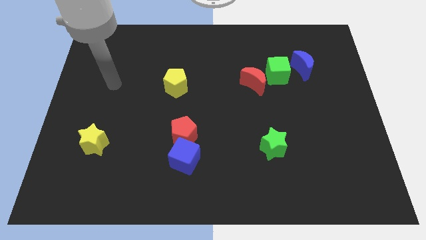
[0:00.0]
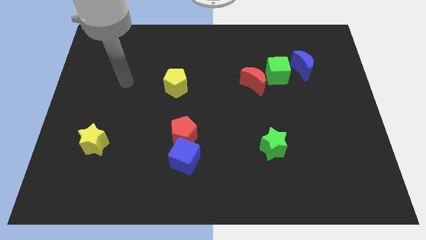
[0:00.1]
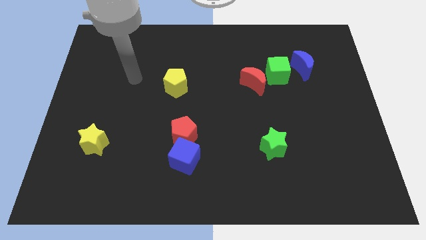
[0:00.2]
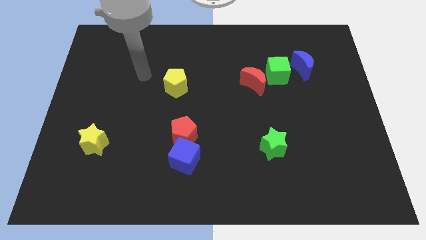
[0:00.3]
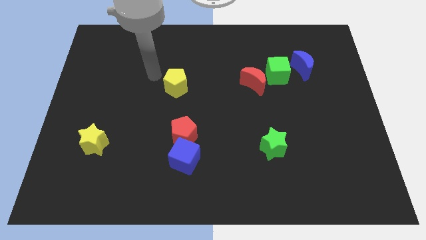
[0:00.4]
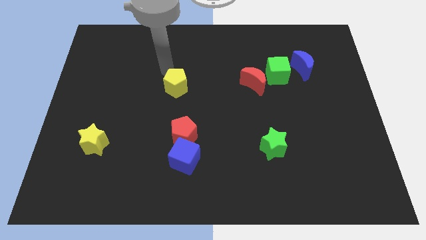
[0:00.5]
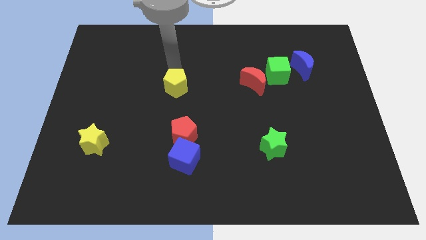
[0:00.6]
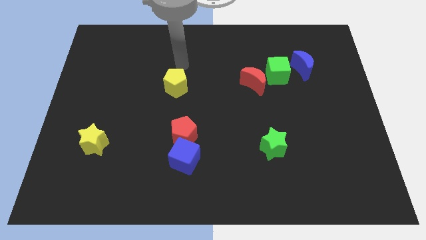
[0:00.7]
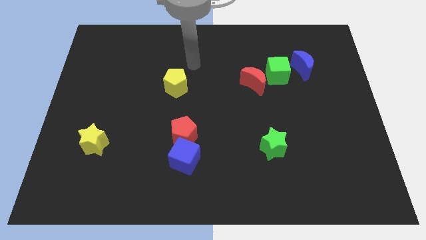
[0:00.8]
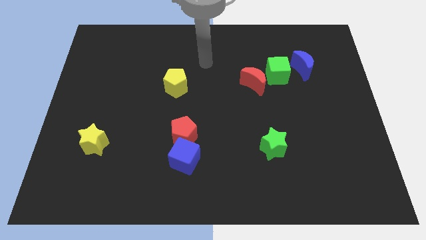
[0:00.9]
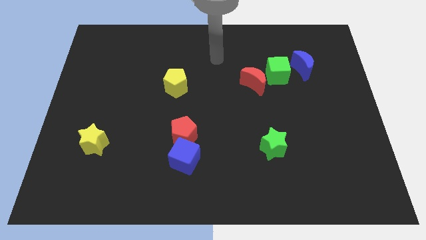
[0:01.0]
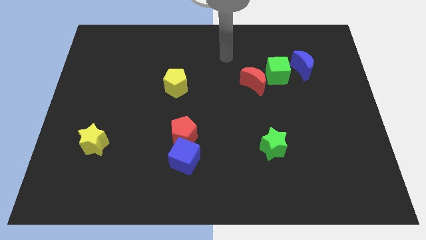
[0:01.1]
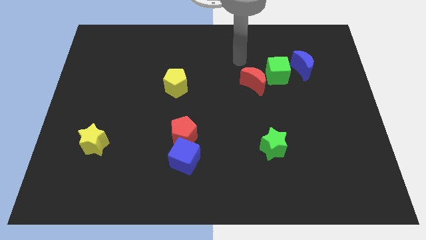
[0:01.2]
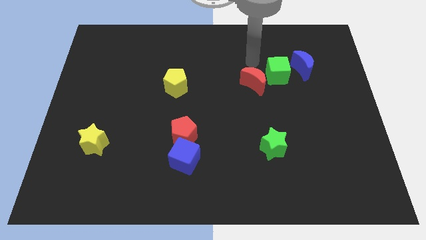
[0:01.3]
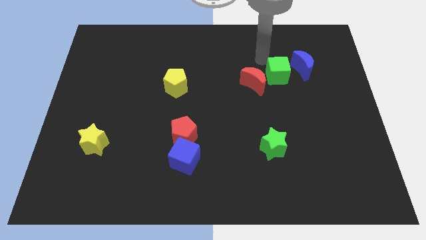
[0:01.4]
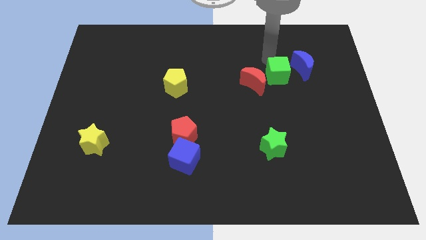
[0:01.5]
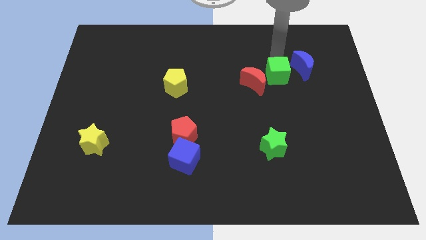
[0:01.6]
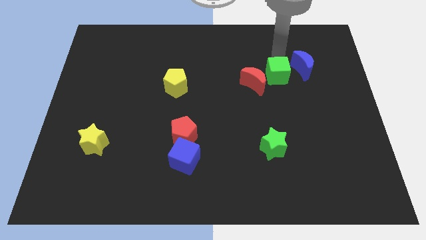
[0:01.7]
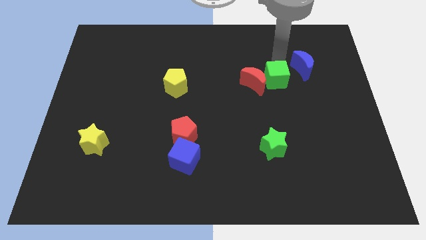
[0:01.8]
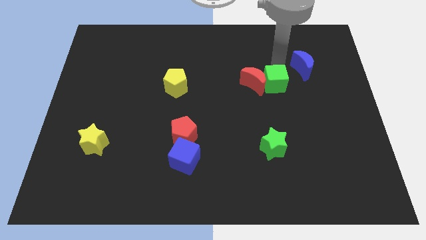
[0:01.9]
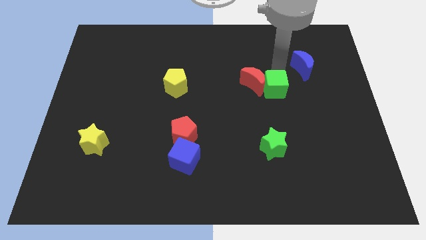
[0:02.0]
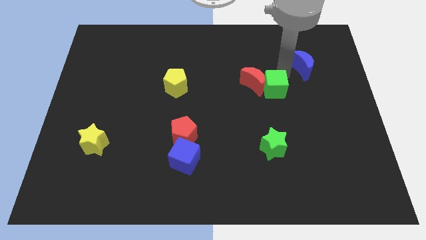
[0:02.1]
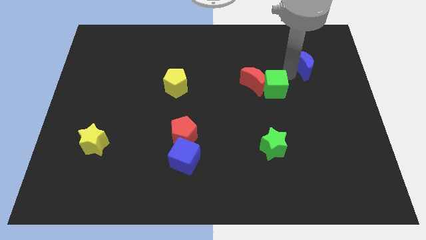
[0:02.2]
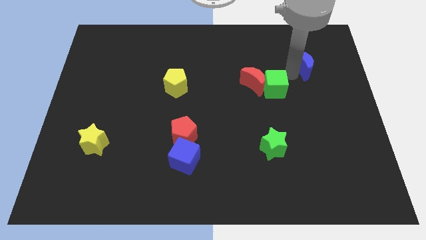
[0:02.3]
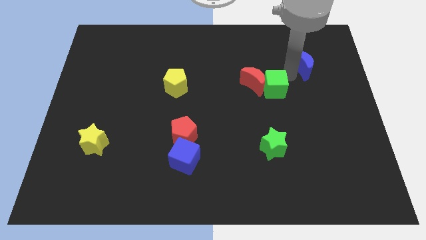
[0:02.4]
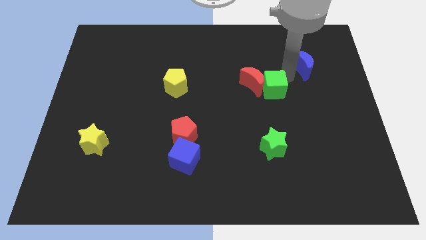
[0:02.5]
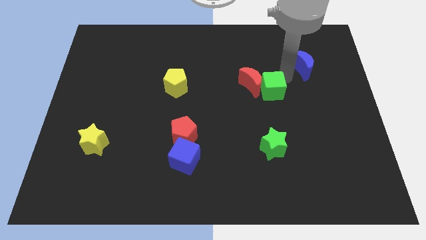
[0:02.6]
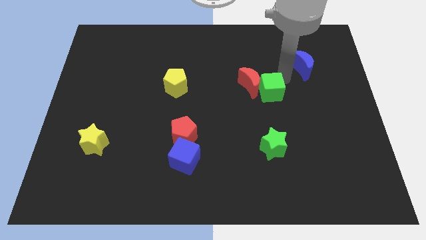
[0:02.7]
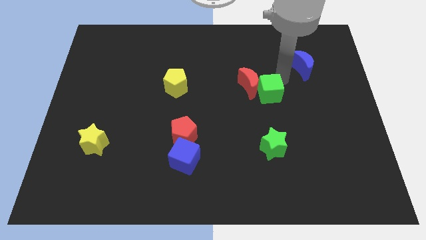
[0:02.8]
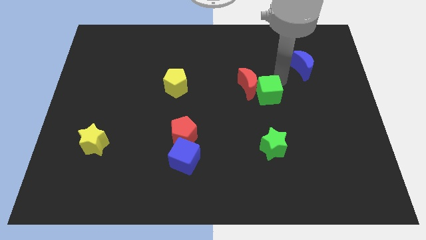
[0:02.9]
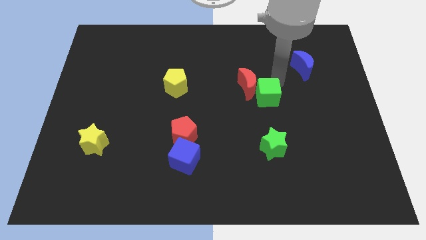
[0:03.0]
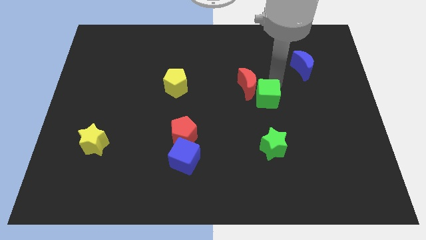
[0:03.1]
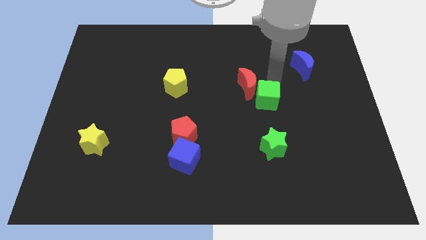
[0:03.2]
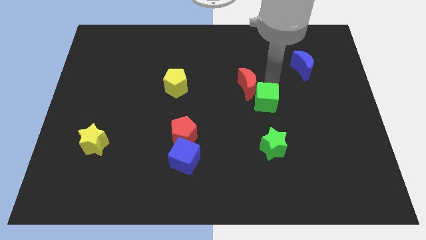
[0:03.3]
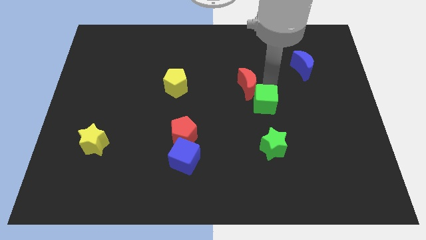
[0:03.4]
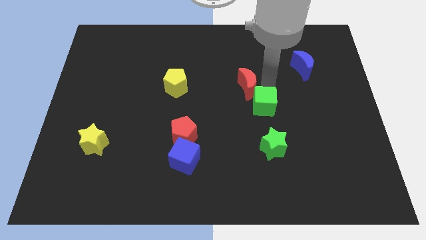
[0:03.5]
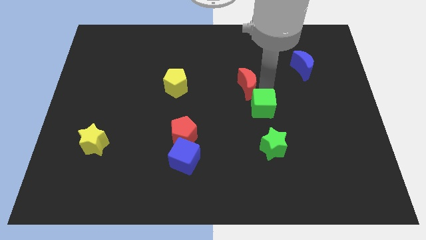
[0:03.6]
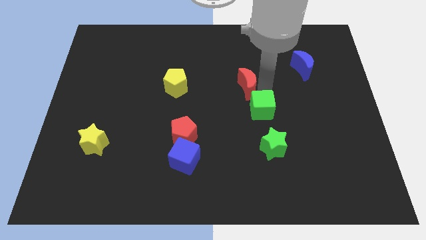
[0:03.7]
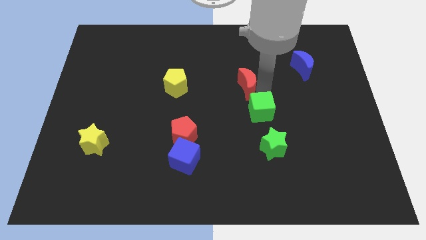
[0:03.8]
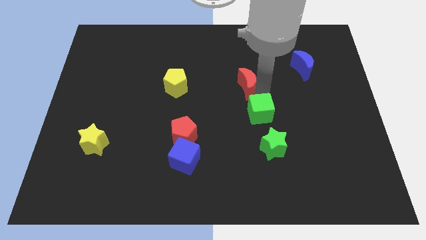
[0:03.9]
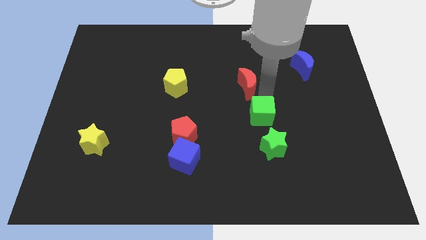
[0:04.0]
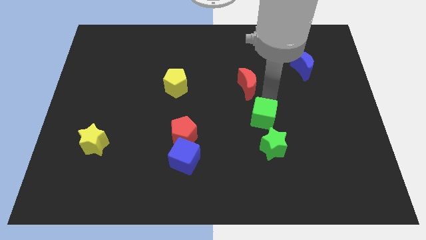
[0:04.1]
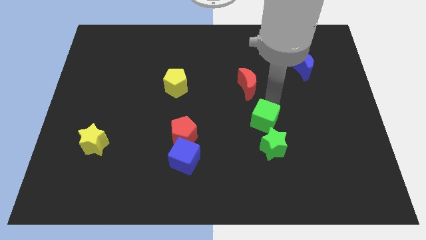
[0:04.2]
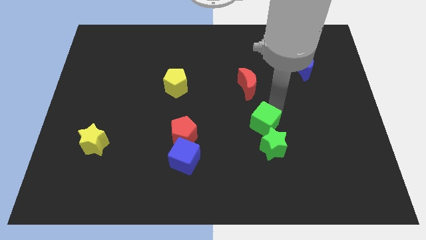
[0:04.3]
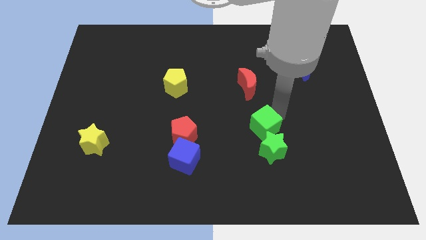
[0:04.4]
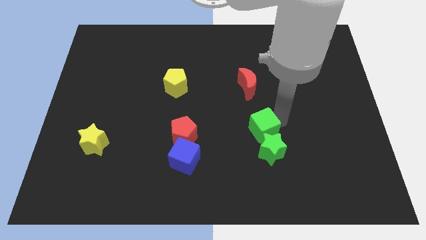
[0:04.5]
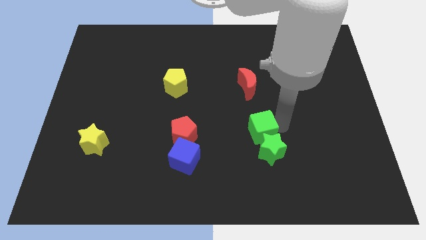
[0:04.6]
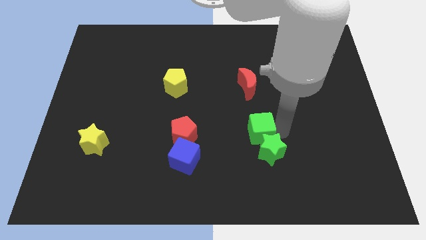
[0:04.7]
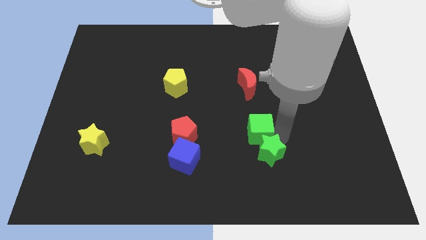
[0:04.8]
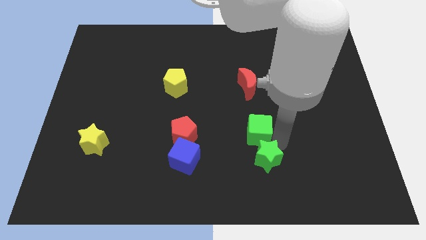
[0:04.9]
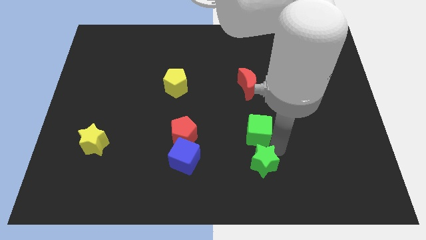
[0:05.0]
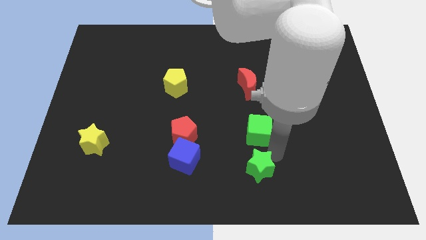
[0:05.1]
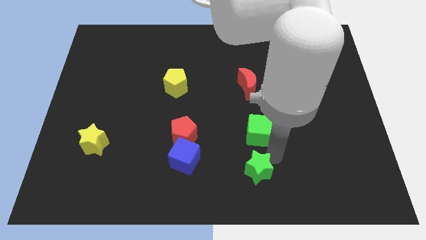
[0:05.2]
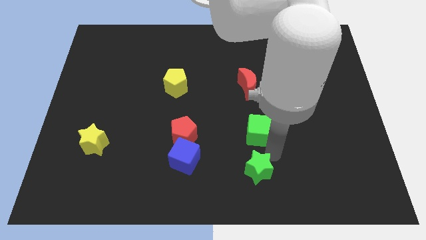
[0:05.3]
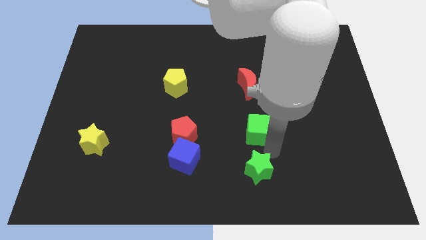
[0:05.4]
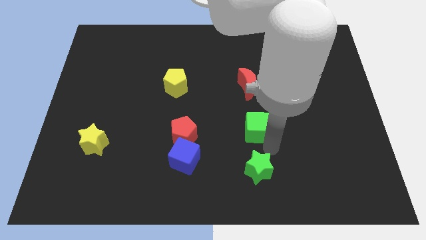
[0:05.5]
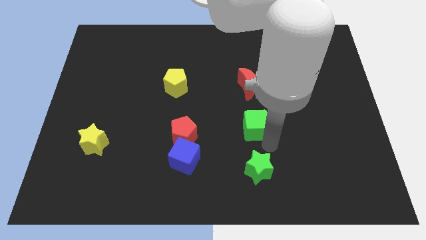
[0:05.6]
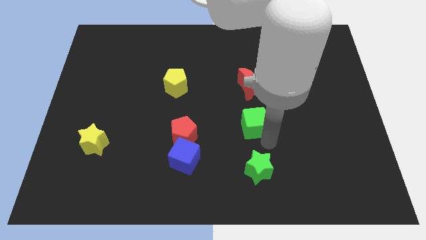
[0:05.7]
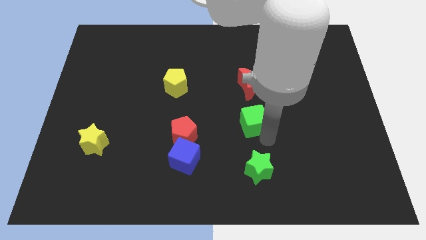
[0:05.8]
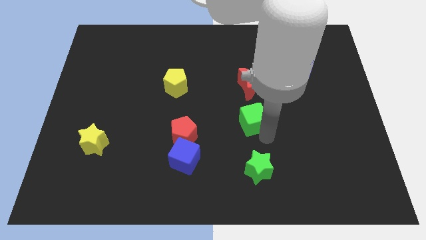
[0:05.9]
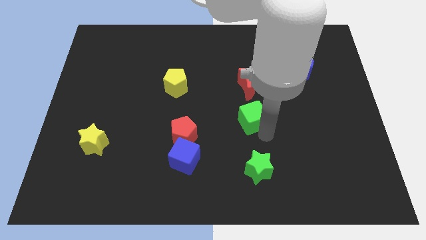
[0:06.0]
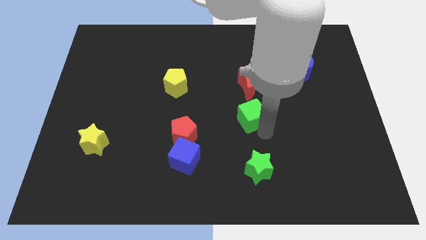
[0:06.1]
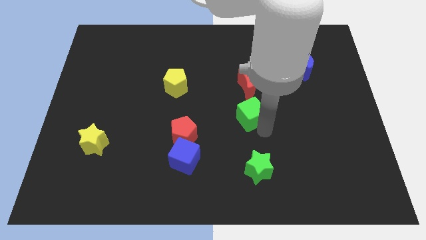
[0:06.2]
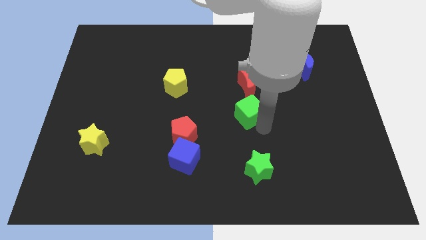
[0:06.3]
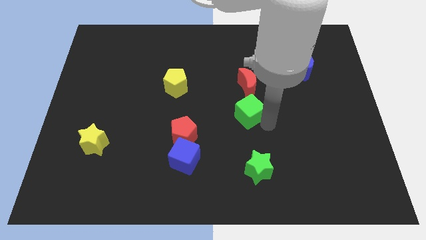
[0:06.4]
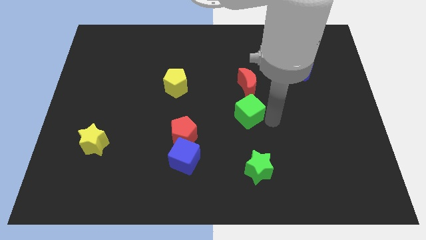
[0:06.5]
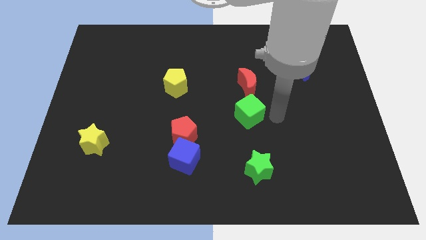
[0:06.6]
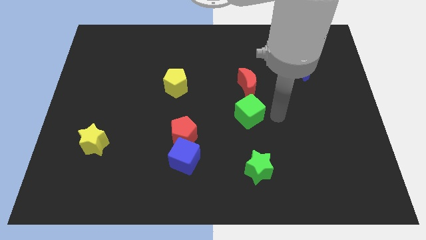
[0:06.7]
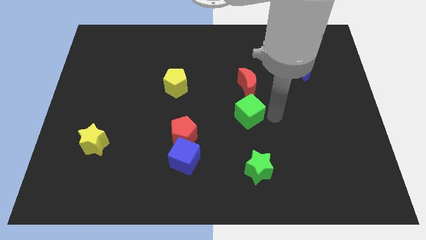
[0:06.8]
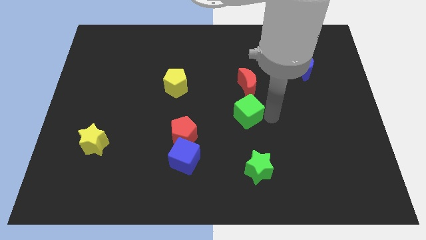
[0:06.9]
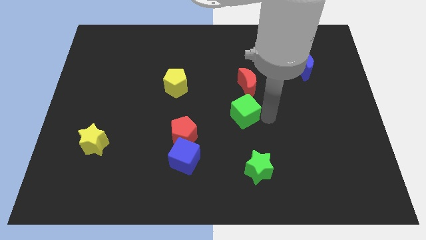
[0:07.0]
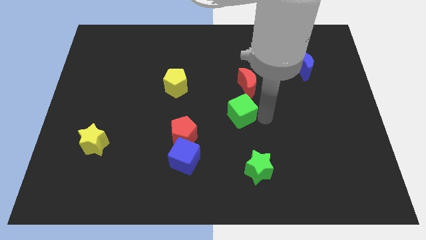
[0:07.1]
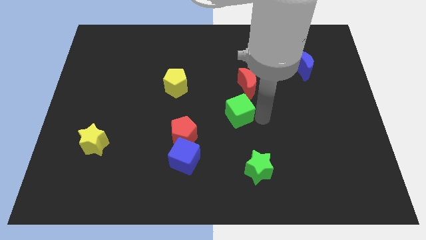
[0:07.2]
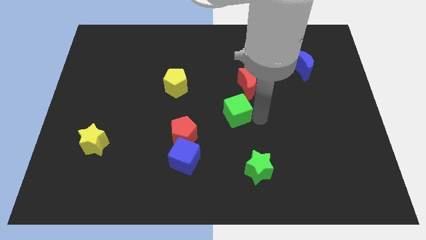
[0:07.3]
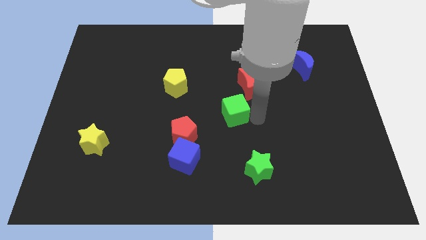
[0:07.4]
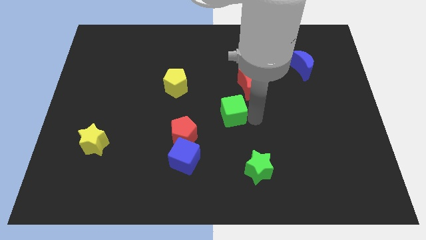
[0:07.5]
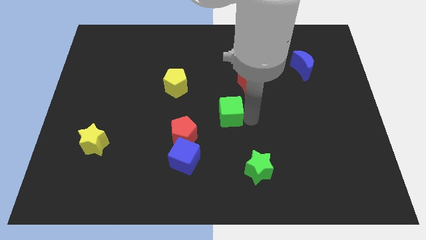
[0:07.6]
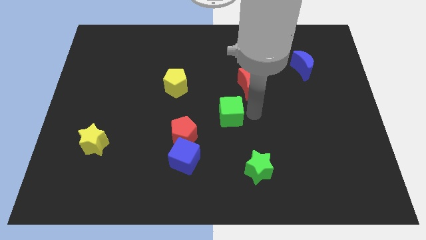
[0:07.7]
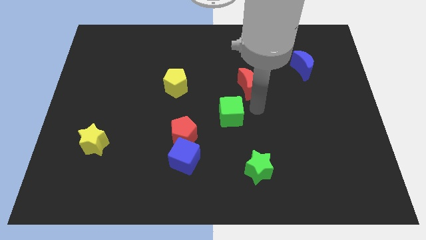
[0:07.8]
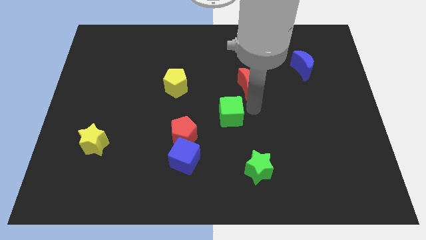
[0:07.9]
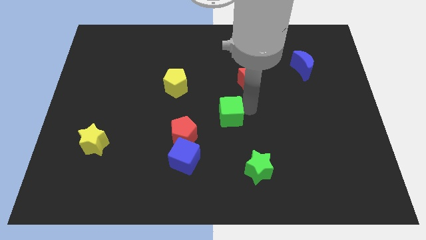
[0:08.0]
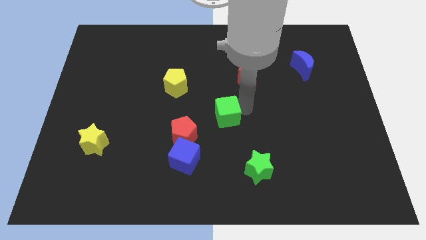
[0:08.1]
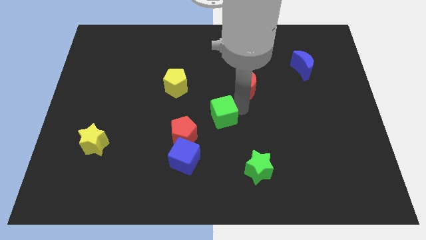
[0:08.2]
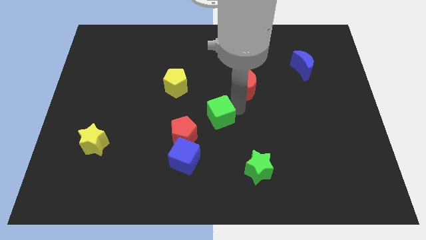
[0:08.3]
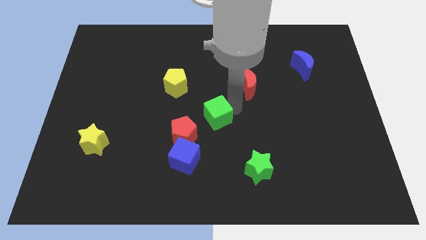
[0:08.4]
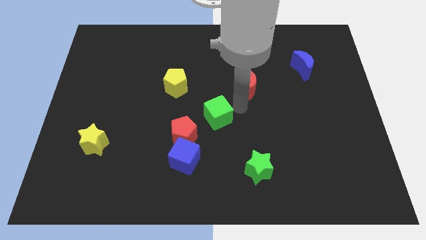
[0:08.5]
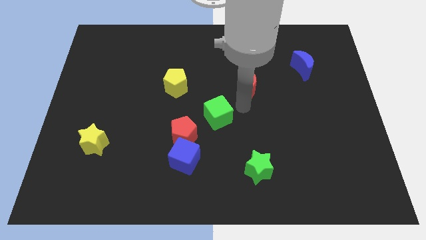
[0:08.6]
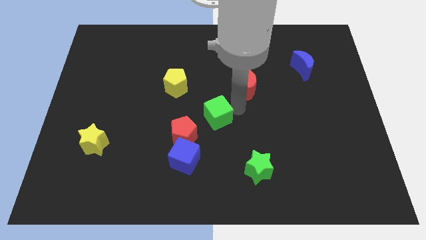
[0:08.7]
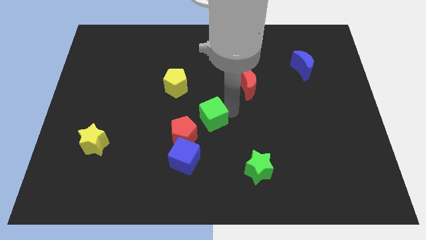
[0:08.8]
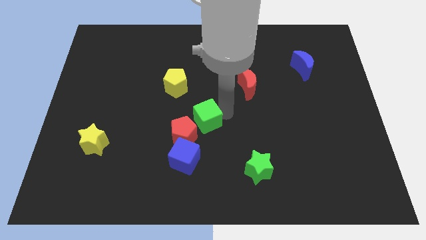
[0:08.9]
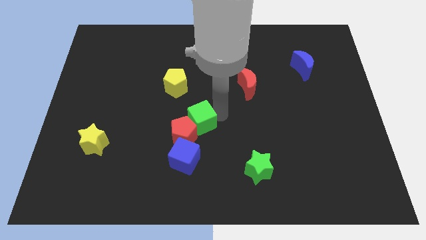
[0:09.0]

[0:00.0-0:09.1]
put the green cube to the red pentagon
